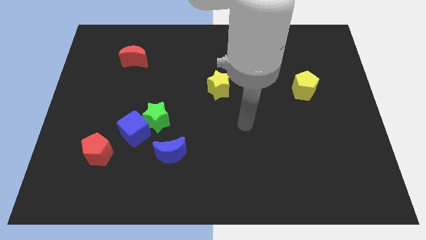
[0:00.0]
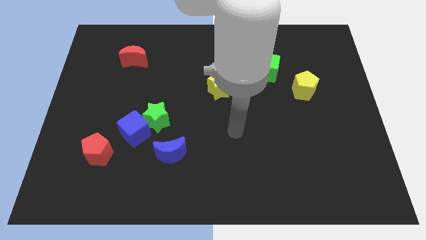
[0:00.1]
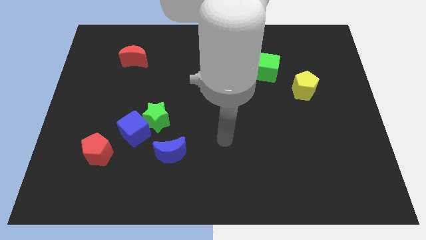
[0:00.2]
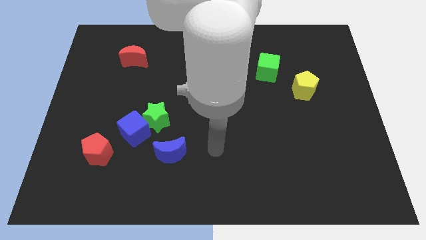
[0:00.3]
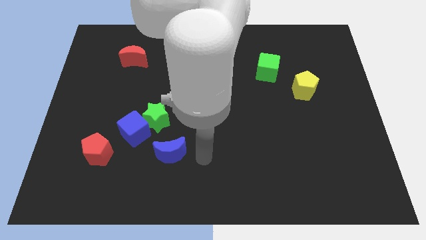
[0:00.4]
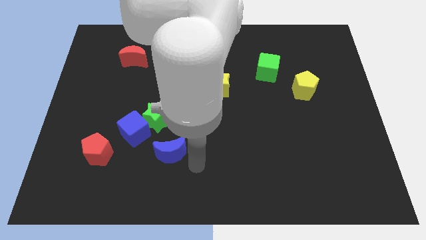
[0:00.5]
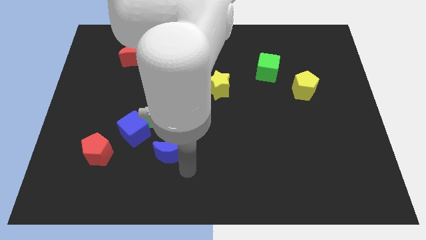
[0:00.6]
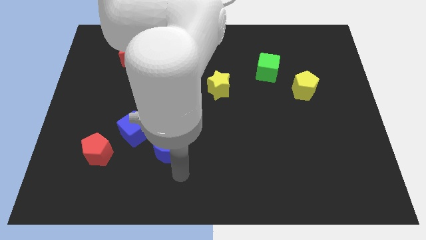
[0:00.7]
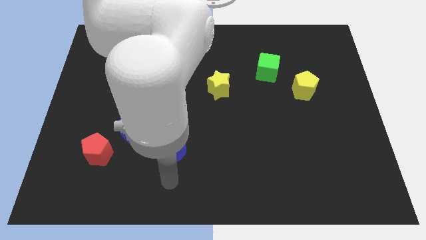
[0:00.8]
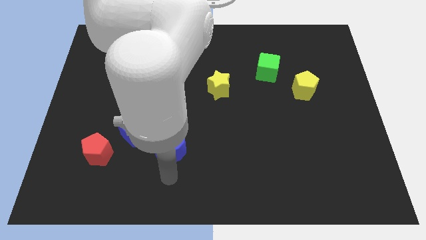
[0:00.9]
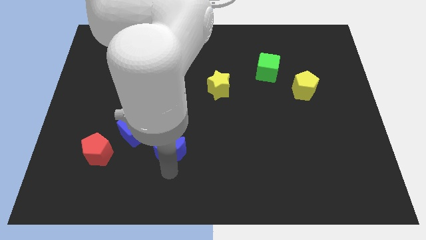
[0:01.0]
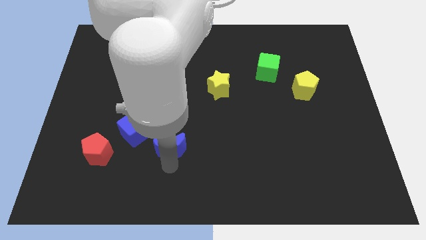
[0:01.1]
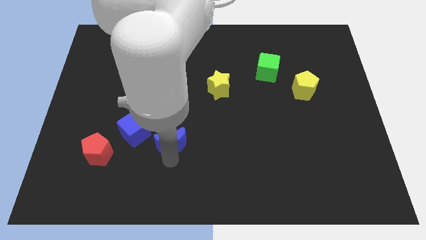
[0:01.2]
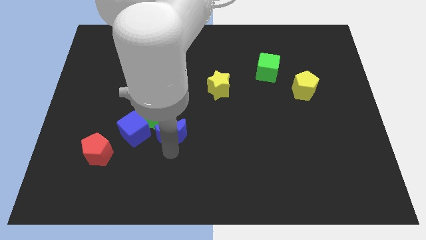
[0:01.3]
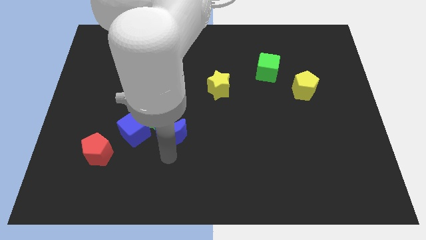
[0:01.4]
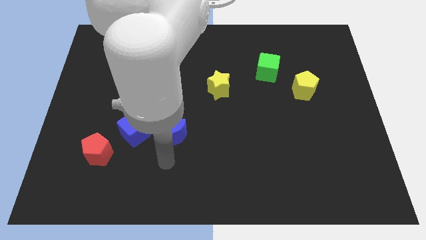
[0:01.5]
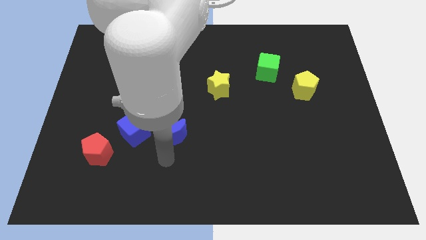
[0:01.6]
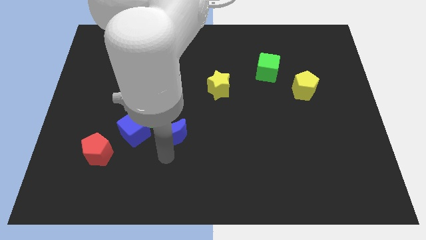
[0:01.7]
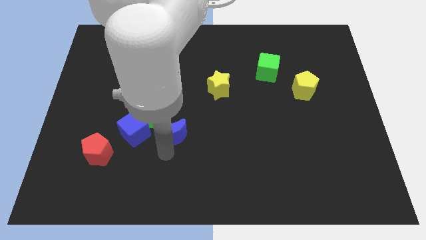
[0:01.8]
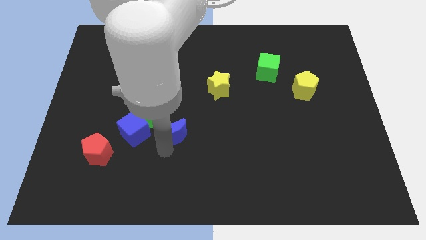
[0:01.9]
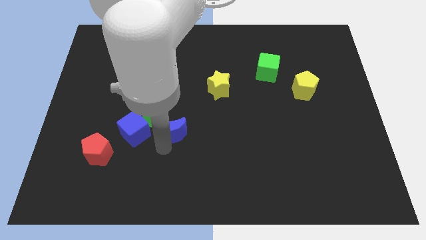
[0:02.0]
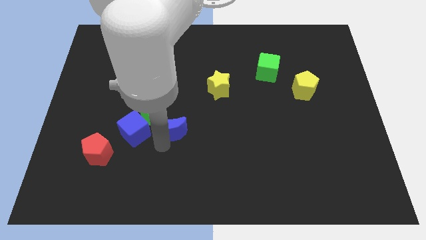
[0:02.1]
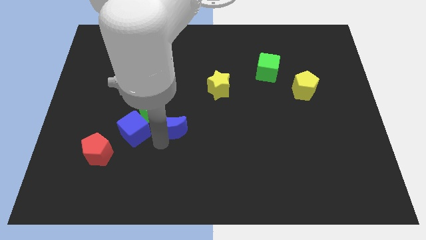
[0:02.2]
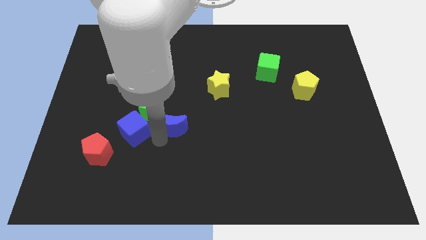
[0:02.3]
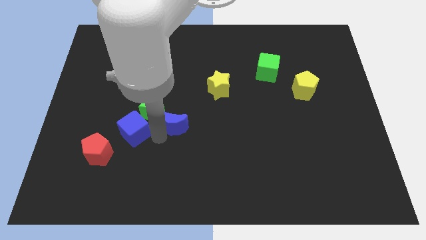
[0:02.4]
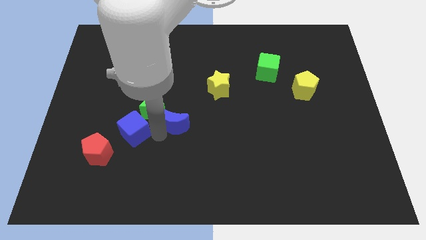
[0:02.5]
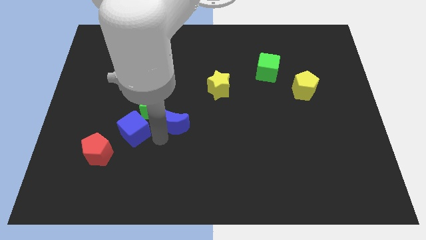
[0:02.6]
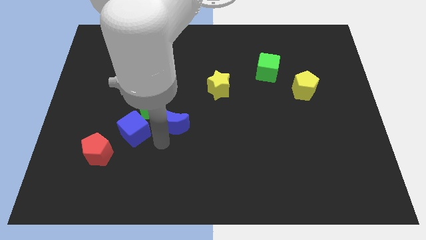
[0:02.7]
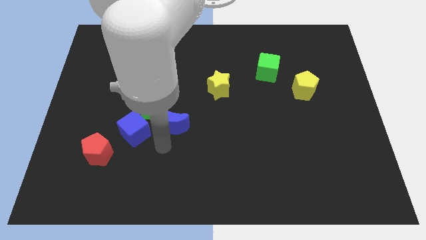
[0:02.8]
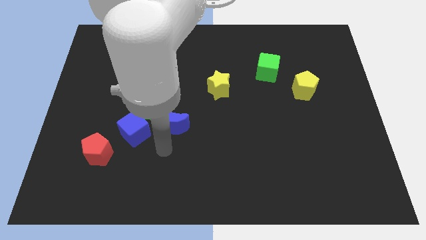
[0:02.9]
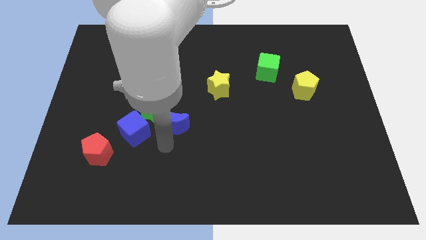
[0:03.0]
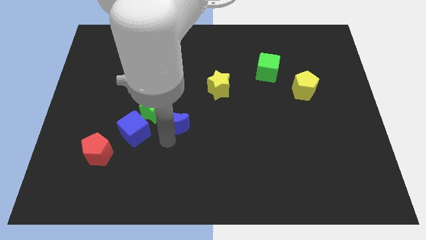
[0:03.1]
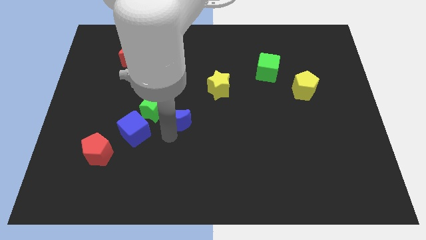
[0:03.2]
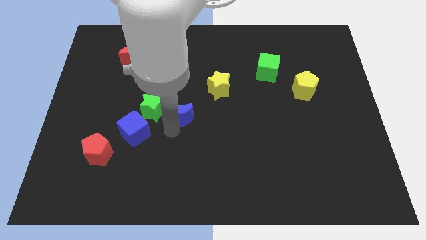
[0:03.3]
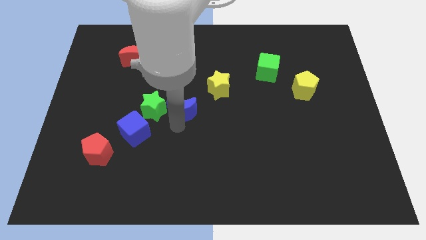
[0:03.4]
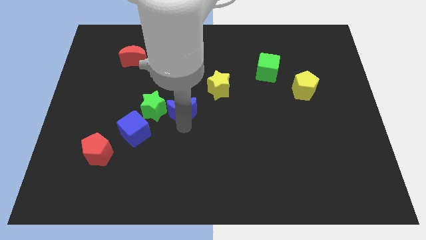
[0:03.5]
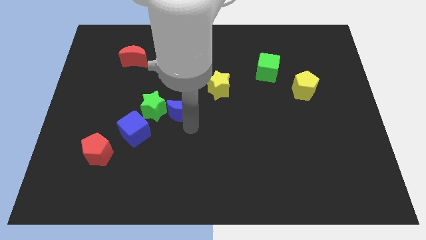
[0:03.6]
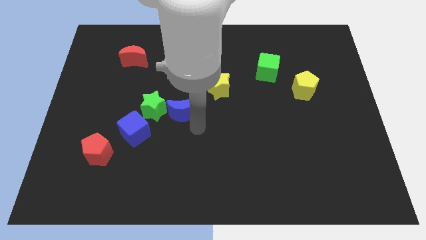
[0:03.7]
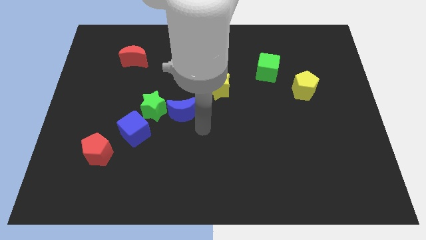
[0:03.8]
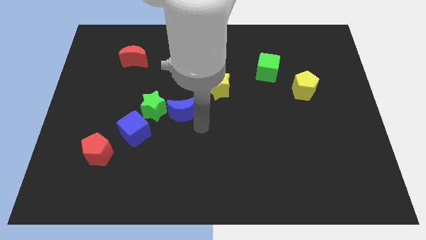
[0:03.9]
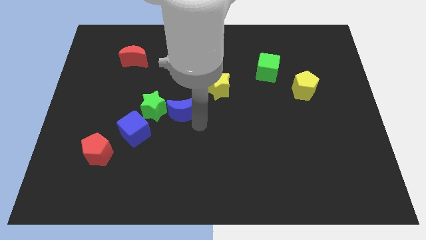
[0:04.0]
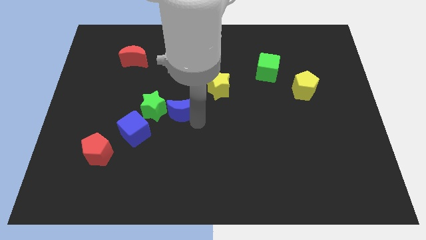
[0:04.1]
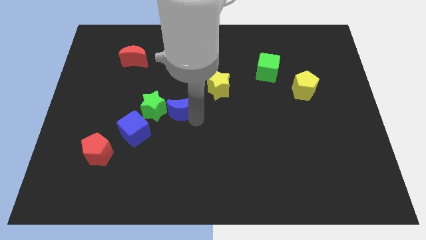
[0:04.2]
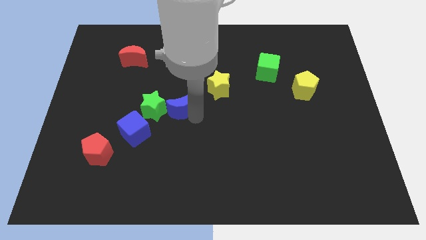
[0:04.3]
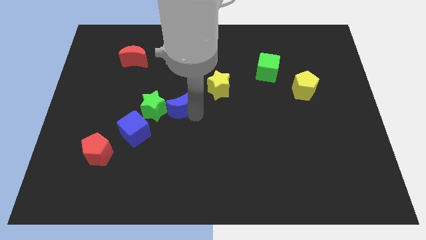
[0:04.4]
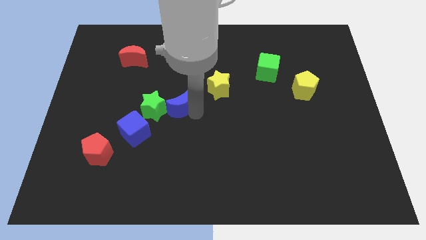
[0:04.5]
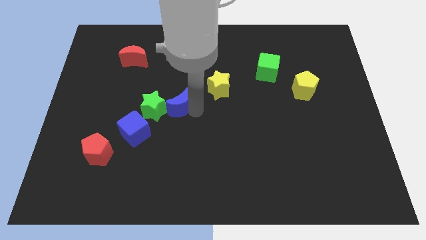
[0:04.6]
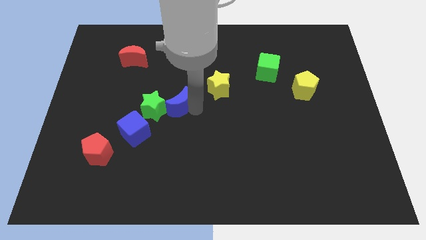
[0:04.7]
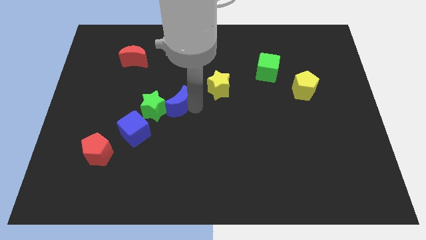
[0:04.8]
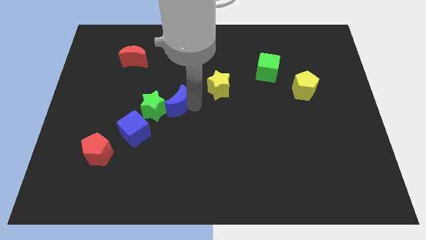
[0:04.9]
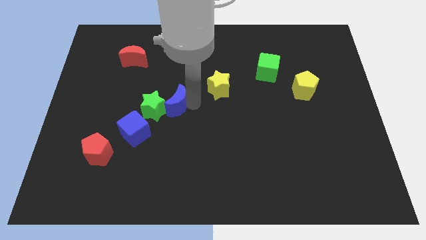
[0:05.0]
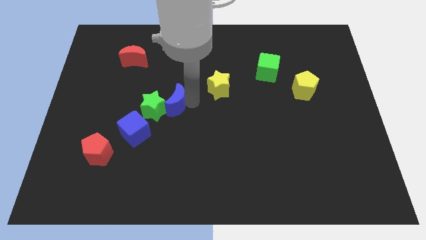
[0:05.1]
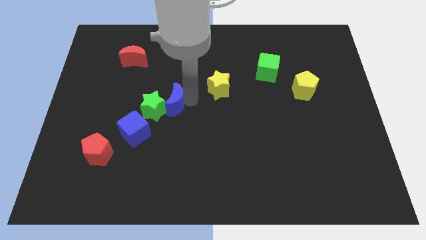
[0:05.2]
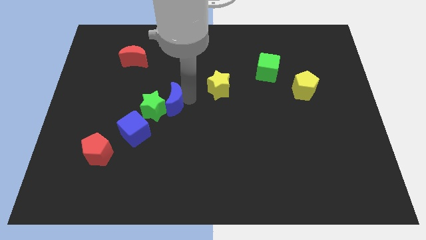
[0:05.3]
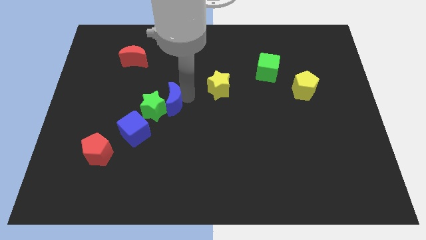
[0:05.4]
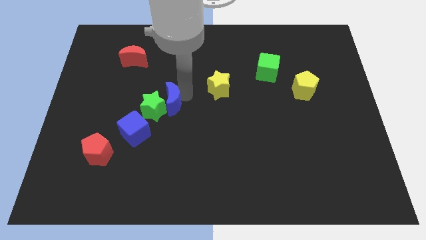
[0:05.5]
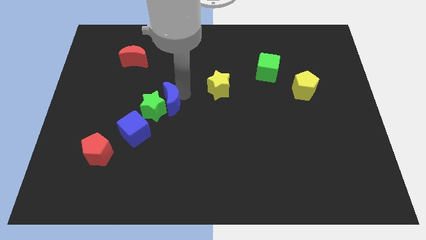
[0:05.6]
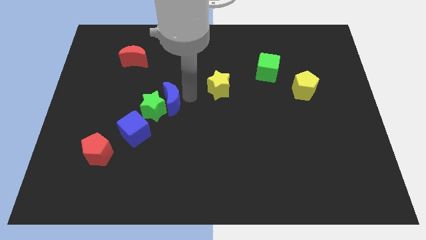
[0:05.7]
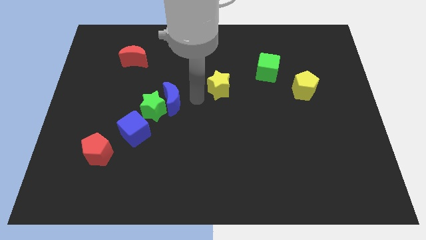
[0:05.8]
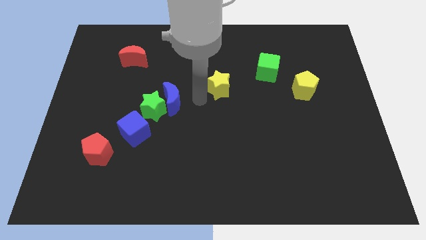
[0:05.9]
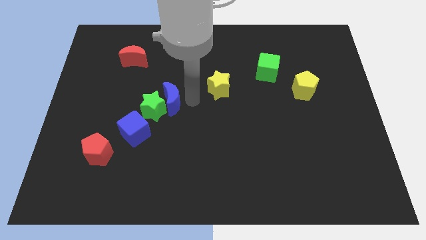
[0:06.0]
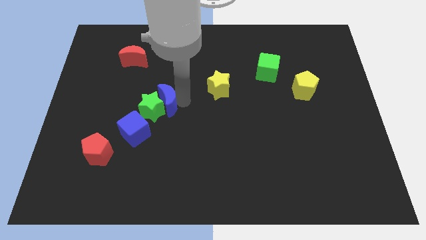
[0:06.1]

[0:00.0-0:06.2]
slightly slide the blue moon upwards and to the left diagonally

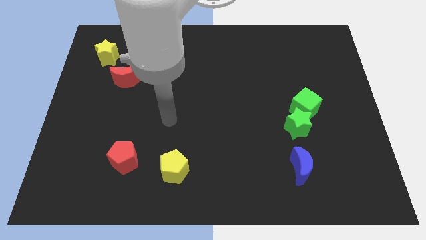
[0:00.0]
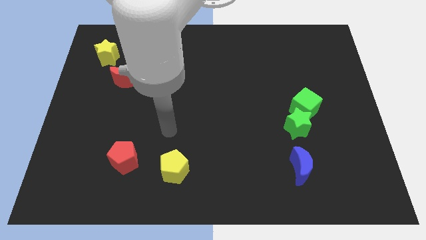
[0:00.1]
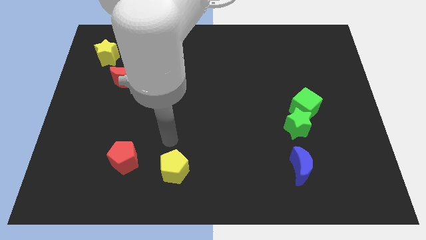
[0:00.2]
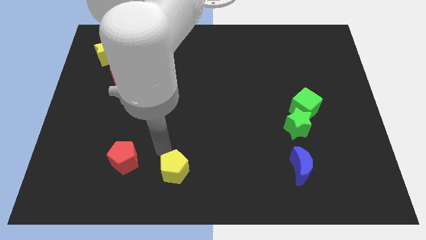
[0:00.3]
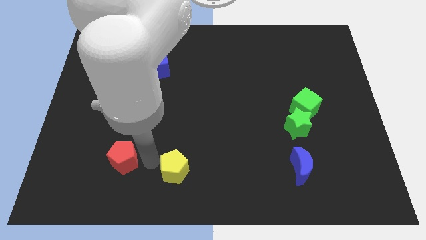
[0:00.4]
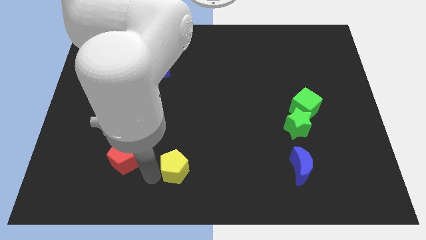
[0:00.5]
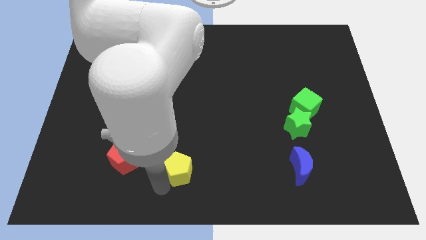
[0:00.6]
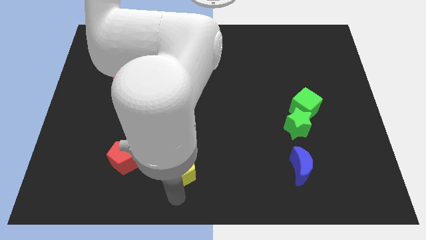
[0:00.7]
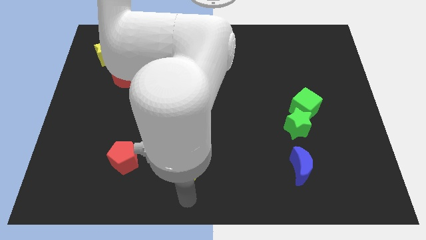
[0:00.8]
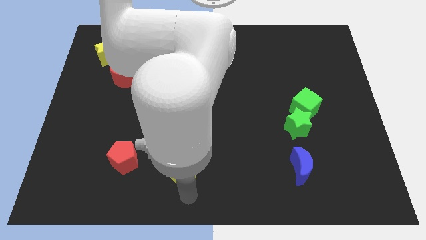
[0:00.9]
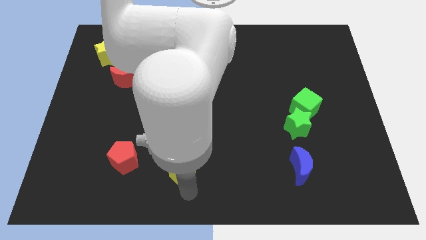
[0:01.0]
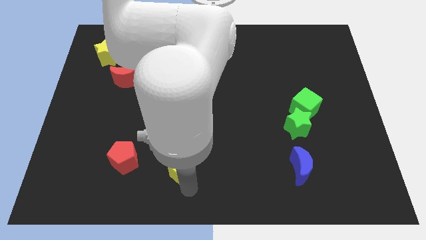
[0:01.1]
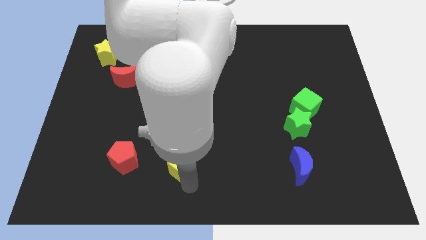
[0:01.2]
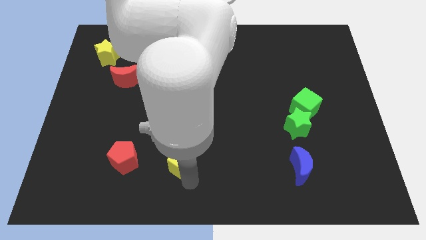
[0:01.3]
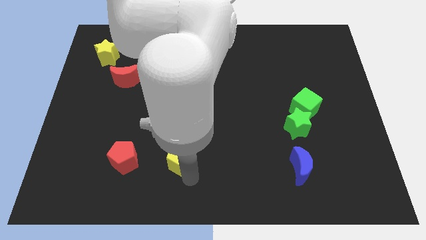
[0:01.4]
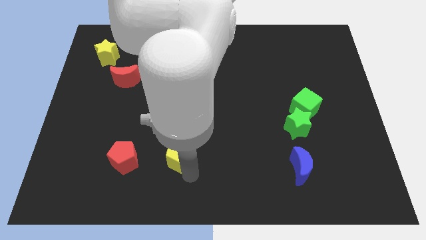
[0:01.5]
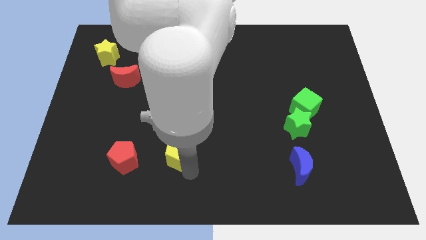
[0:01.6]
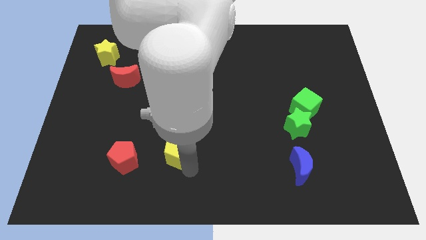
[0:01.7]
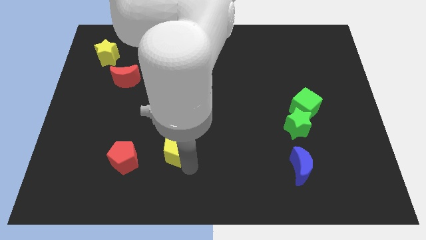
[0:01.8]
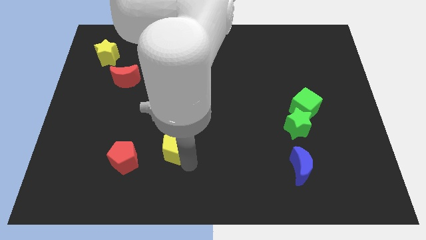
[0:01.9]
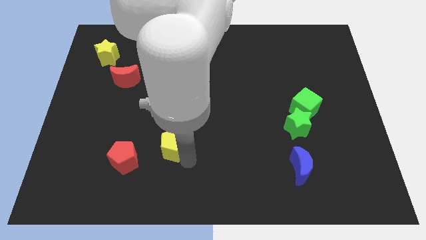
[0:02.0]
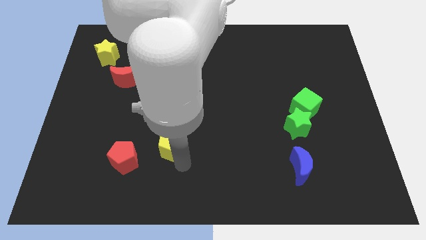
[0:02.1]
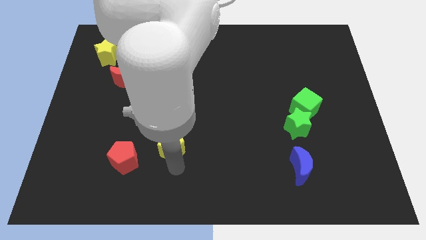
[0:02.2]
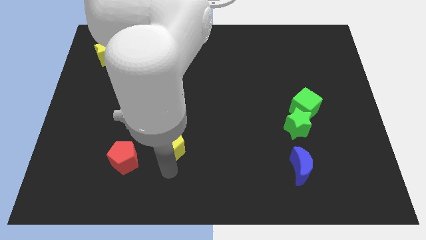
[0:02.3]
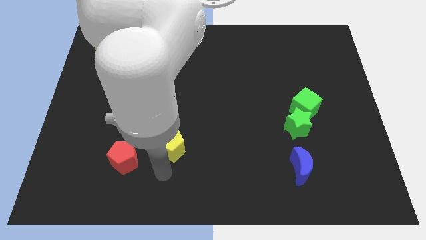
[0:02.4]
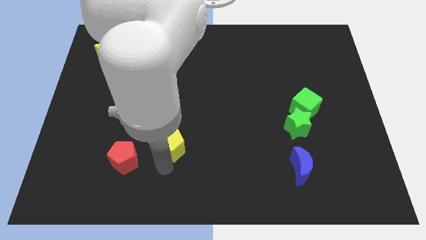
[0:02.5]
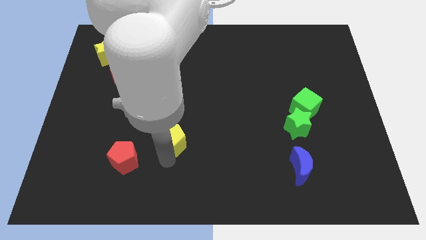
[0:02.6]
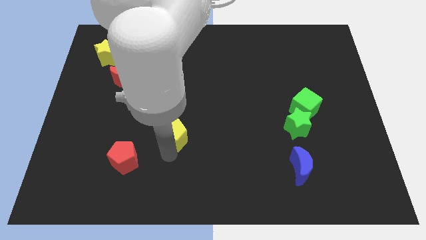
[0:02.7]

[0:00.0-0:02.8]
push the yellow pentagon a little bit upwards
